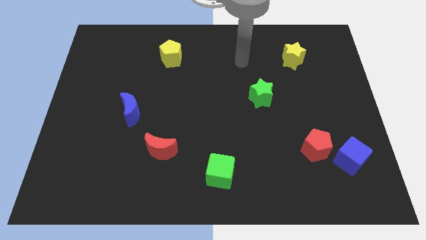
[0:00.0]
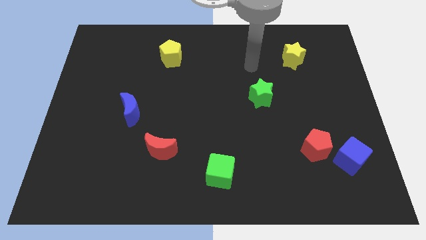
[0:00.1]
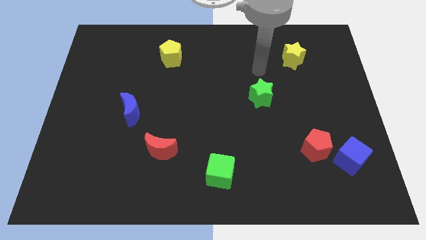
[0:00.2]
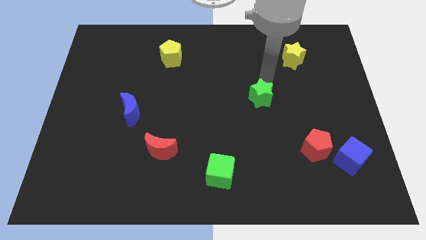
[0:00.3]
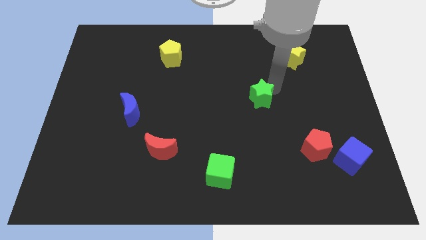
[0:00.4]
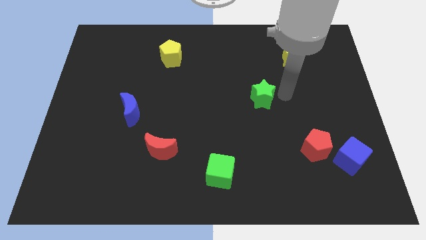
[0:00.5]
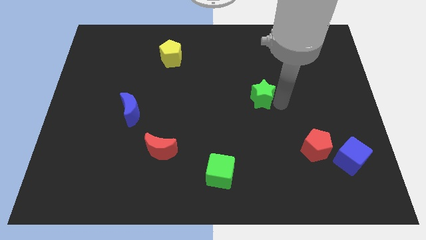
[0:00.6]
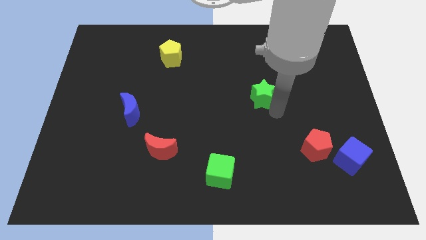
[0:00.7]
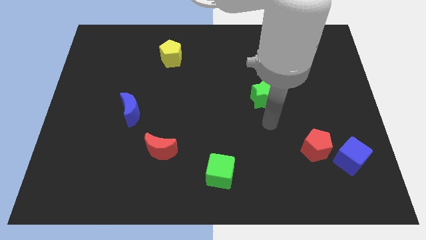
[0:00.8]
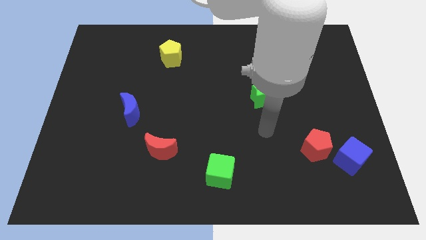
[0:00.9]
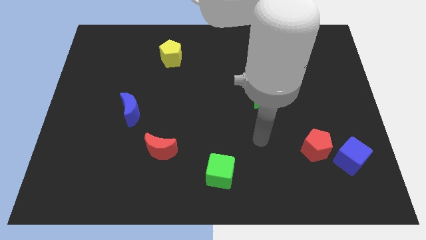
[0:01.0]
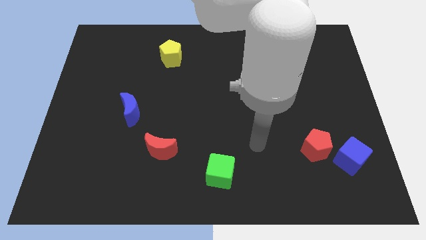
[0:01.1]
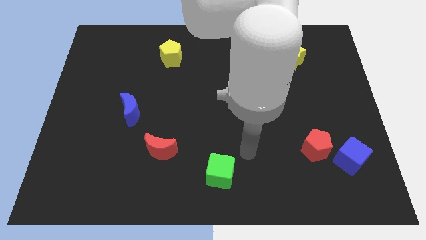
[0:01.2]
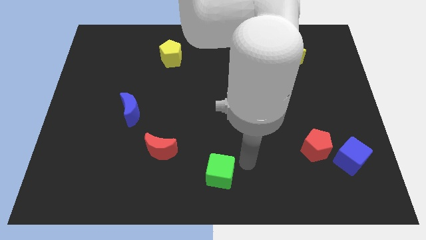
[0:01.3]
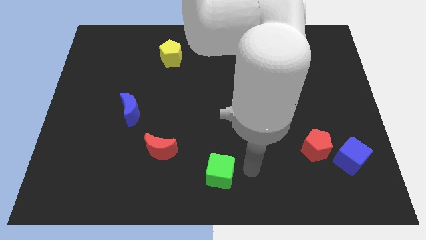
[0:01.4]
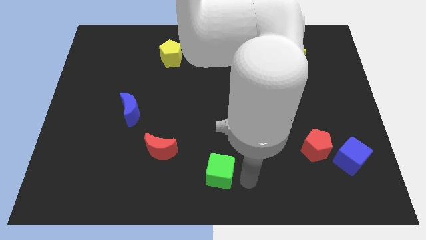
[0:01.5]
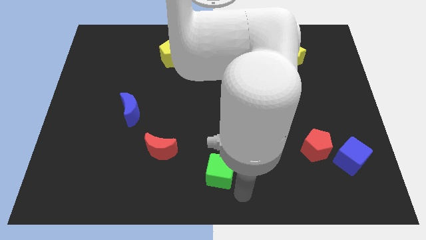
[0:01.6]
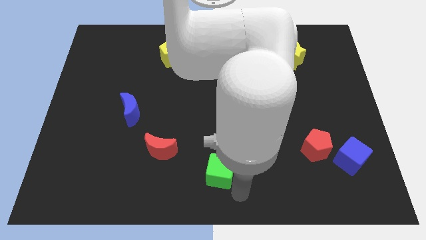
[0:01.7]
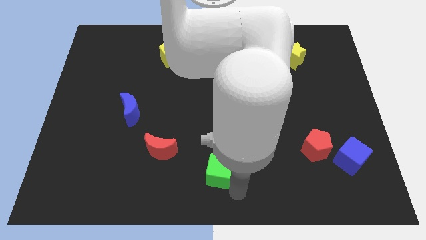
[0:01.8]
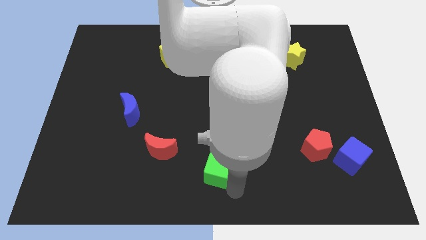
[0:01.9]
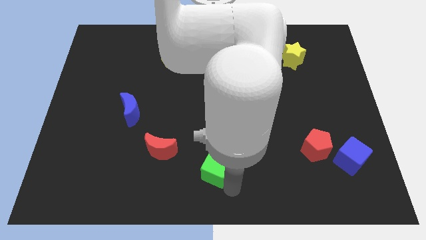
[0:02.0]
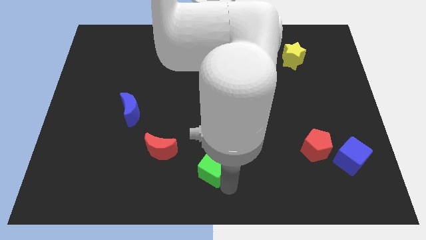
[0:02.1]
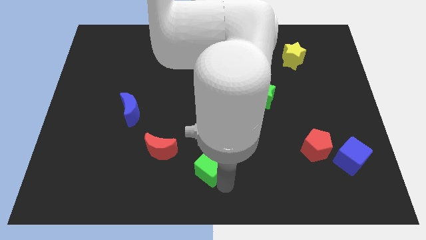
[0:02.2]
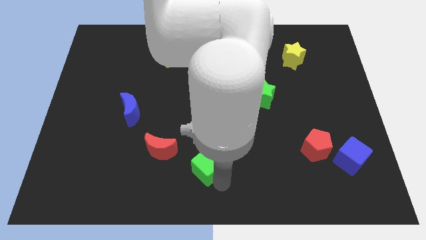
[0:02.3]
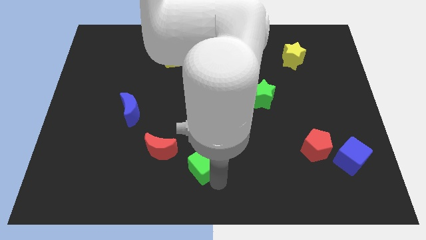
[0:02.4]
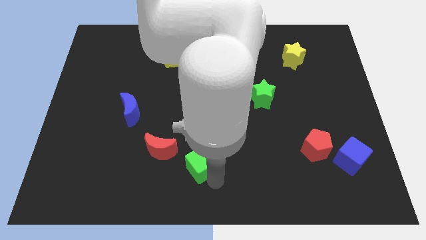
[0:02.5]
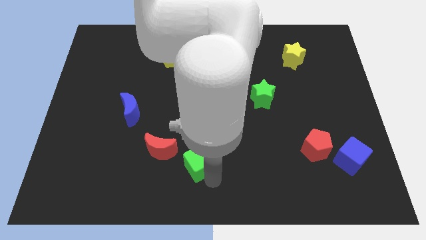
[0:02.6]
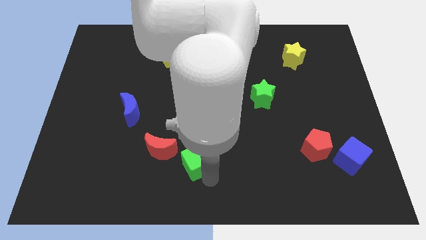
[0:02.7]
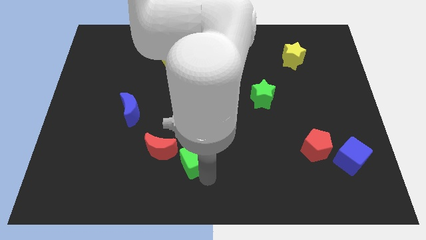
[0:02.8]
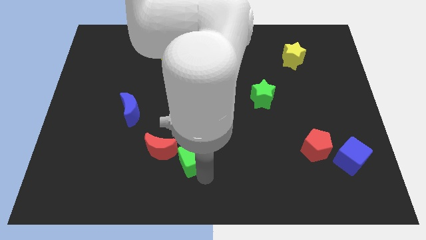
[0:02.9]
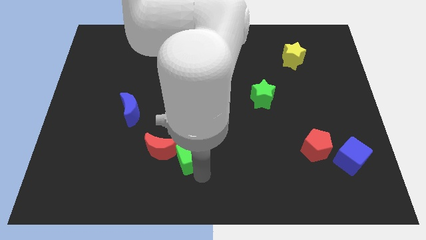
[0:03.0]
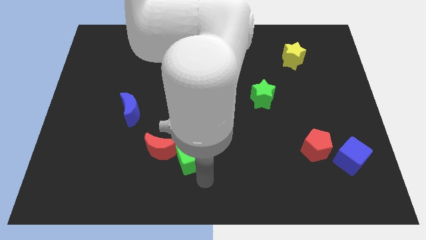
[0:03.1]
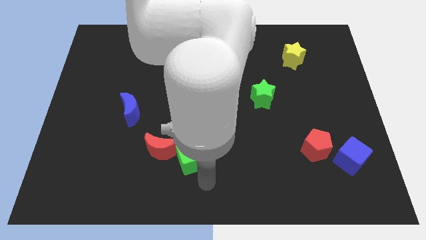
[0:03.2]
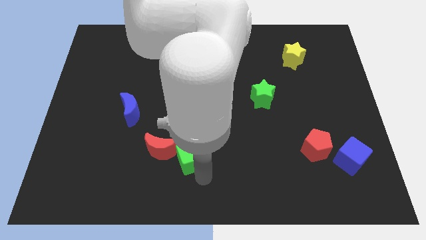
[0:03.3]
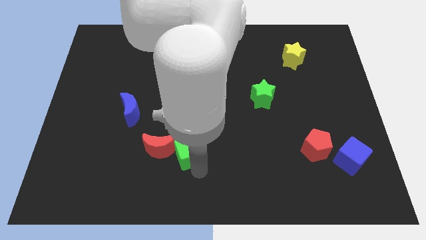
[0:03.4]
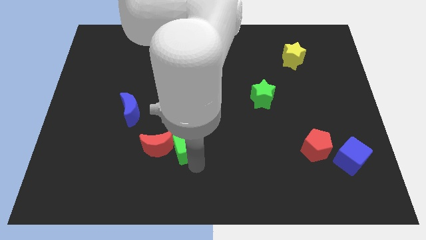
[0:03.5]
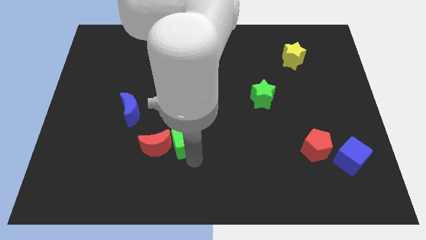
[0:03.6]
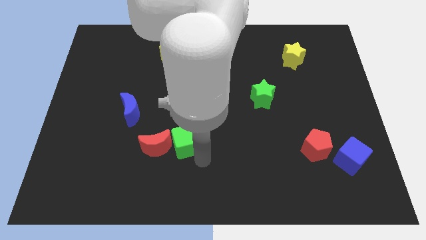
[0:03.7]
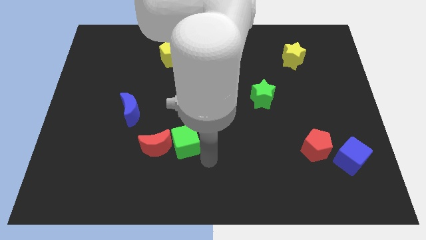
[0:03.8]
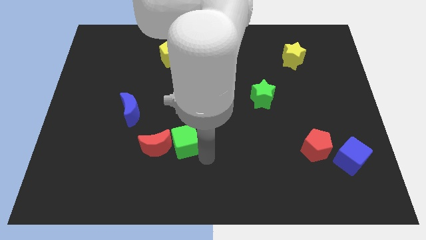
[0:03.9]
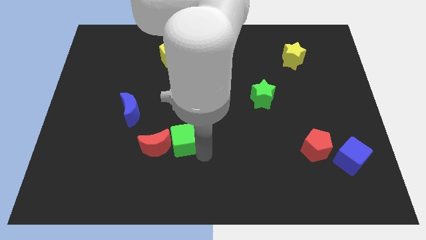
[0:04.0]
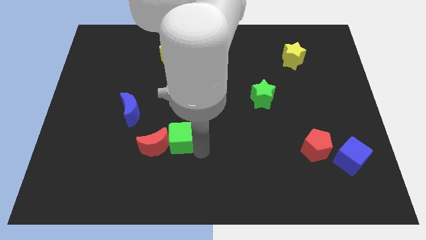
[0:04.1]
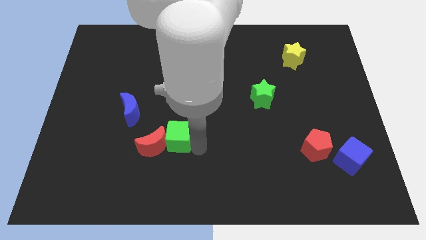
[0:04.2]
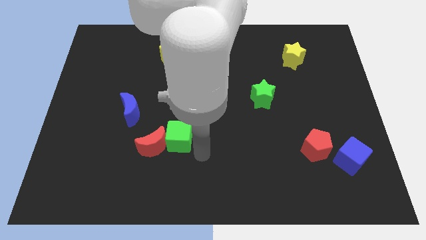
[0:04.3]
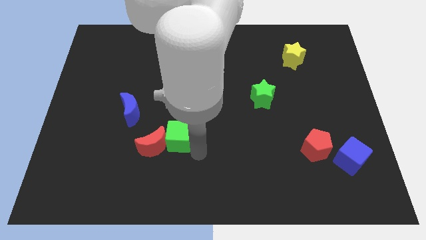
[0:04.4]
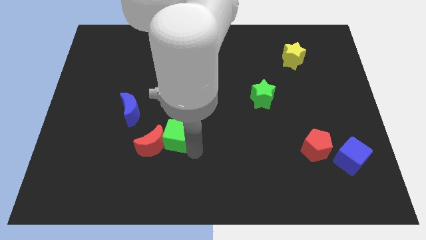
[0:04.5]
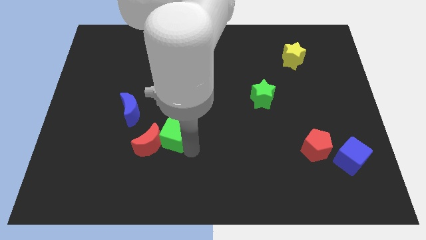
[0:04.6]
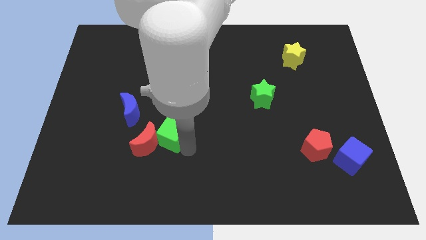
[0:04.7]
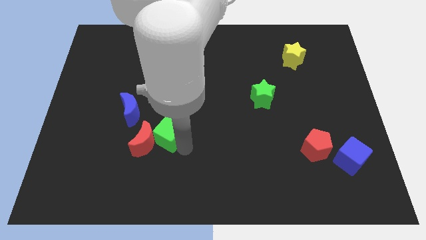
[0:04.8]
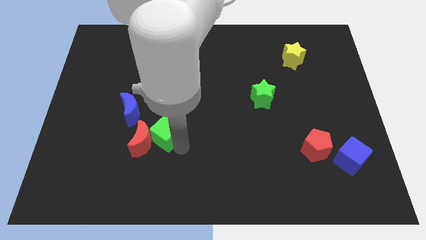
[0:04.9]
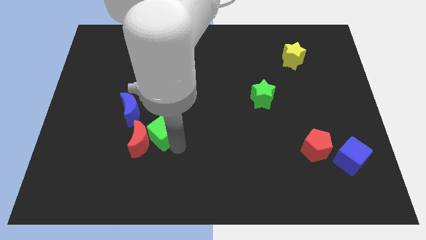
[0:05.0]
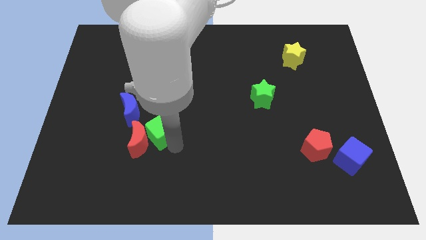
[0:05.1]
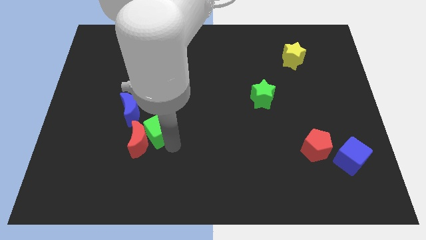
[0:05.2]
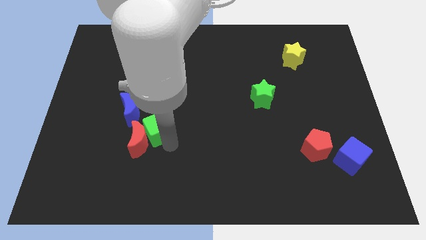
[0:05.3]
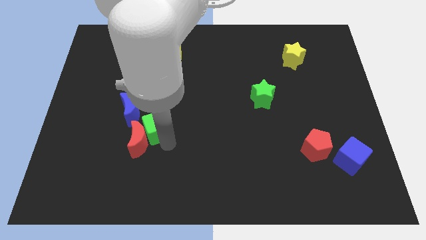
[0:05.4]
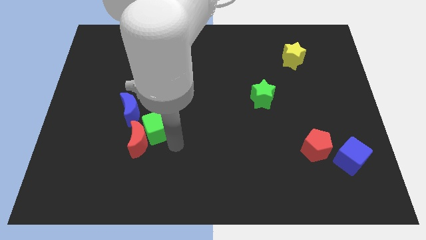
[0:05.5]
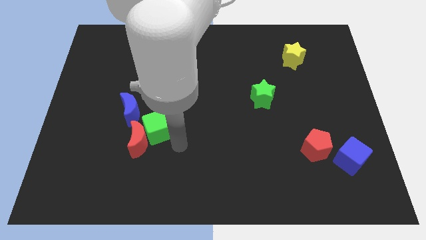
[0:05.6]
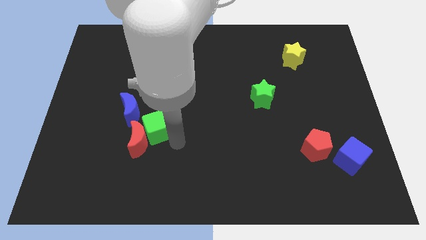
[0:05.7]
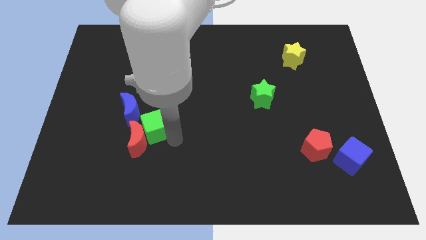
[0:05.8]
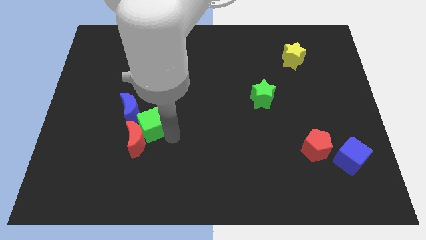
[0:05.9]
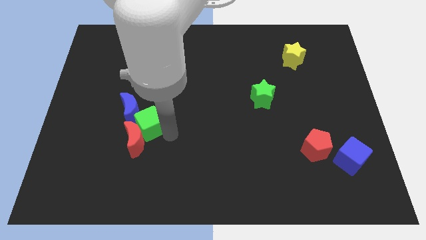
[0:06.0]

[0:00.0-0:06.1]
slide the green cube next to the blue moon

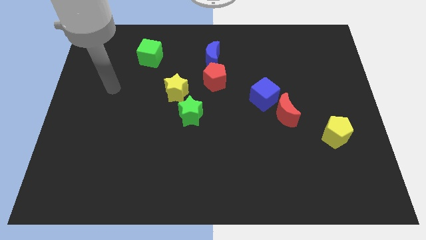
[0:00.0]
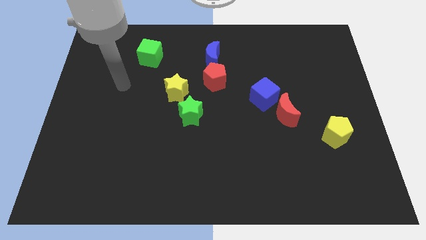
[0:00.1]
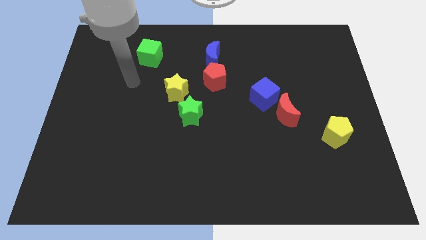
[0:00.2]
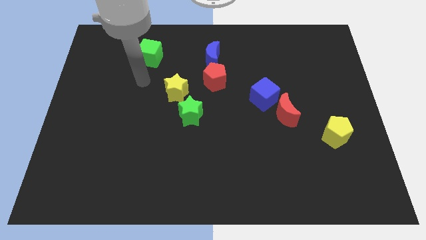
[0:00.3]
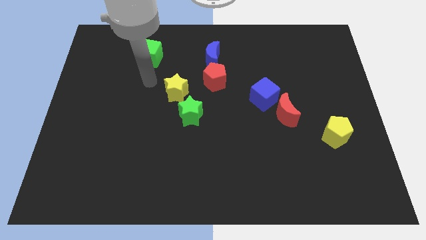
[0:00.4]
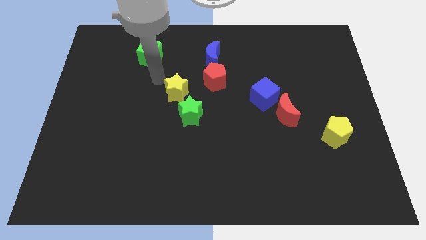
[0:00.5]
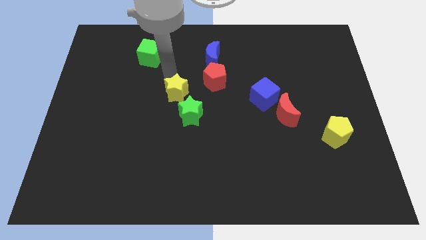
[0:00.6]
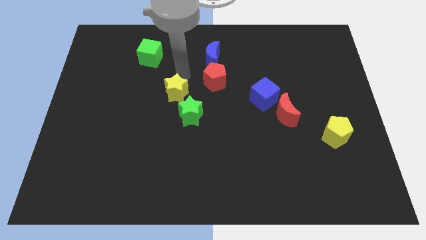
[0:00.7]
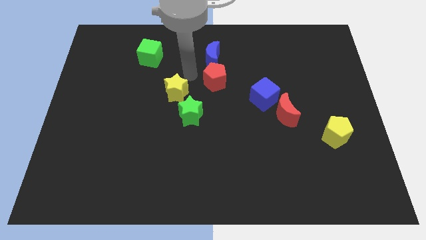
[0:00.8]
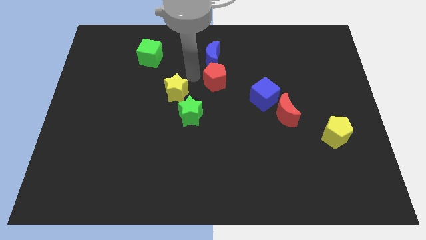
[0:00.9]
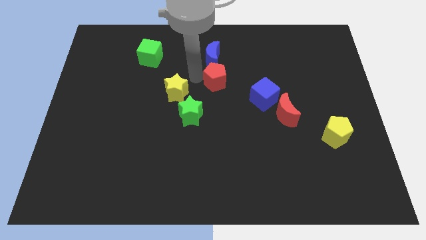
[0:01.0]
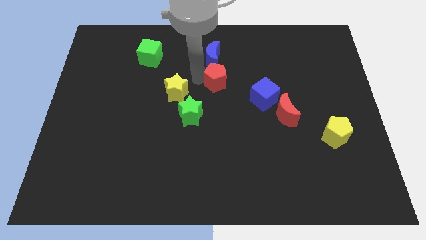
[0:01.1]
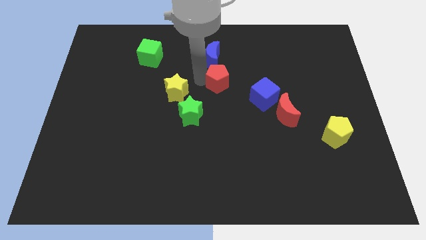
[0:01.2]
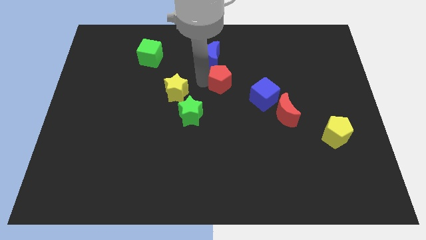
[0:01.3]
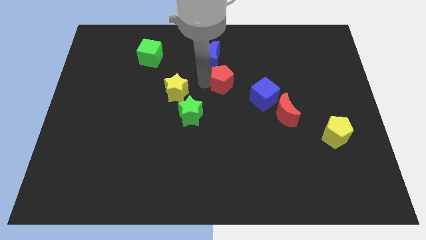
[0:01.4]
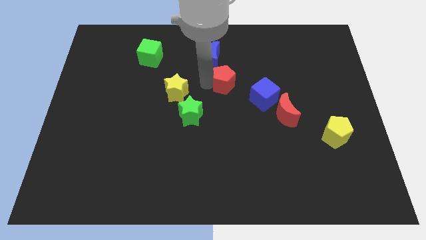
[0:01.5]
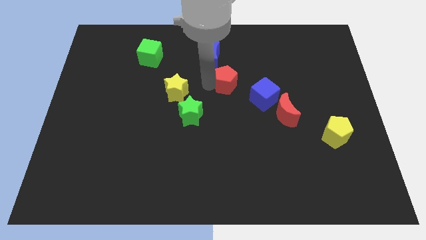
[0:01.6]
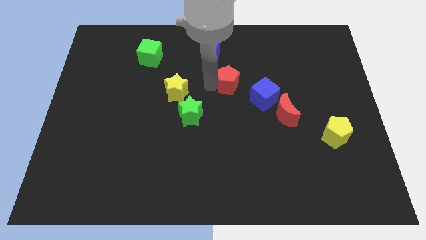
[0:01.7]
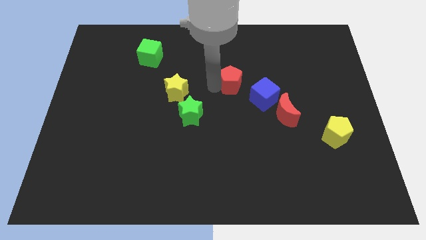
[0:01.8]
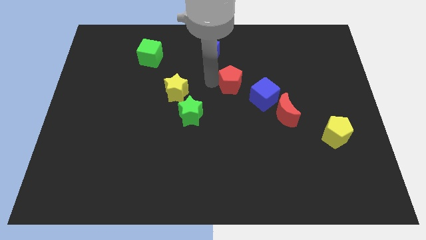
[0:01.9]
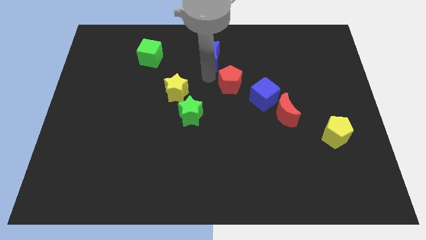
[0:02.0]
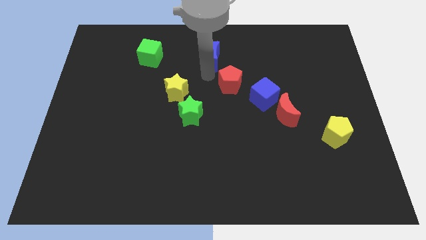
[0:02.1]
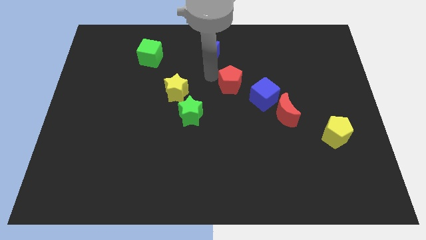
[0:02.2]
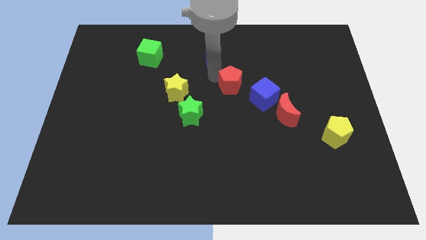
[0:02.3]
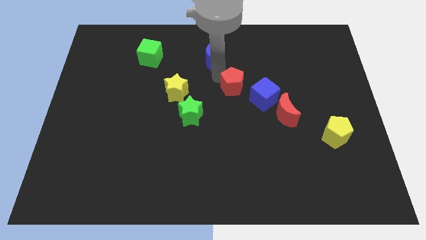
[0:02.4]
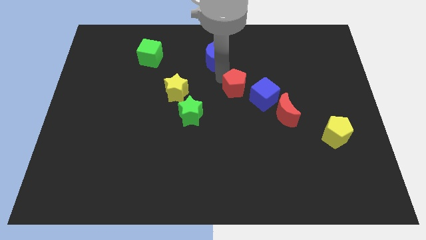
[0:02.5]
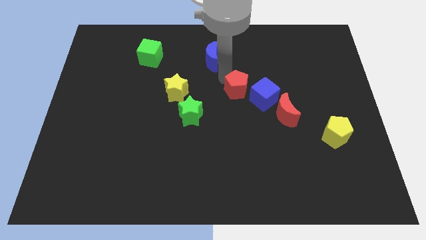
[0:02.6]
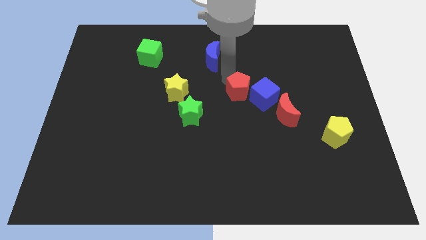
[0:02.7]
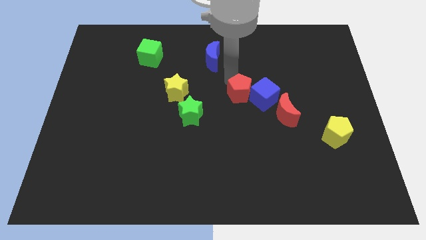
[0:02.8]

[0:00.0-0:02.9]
slide the red pentagon next to the blue cube
